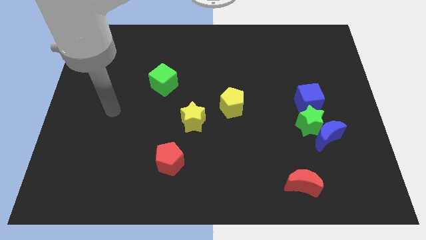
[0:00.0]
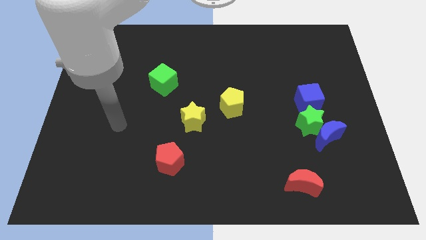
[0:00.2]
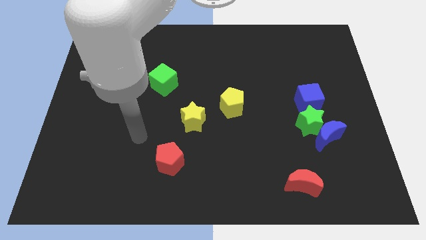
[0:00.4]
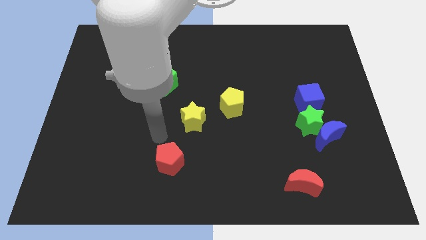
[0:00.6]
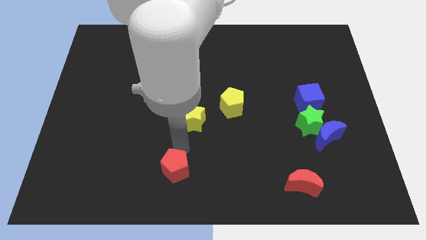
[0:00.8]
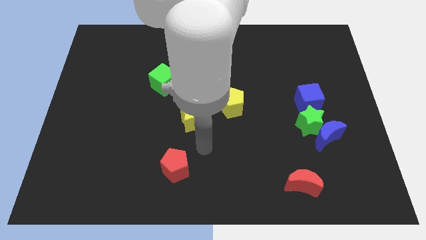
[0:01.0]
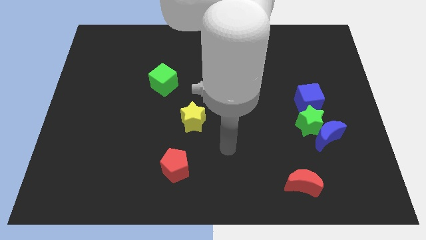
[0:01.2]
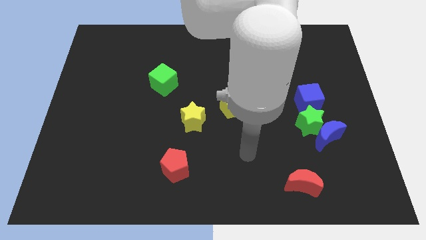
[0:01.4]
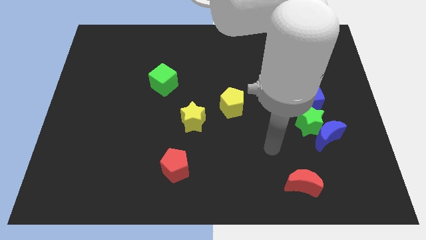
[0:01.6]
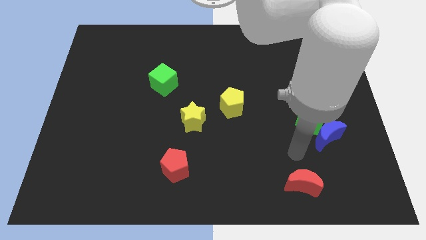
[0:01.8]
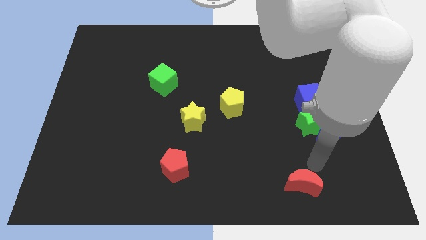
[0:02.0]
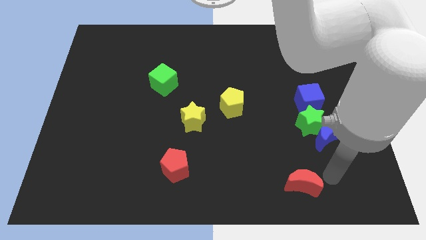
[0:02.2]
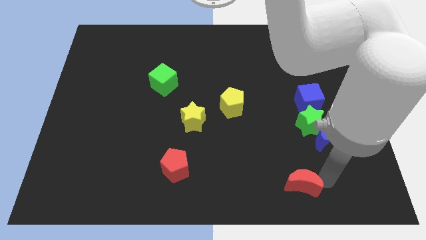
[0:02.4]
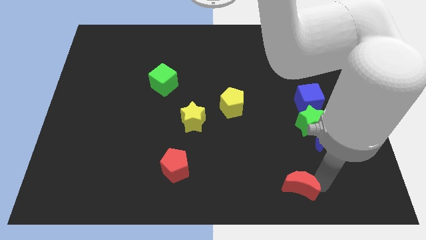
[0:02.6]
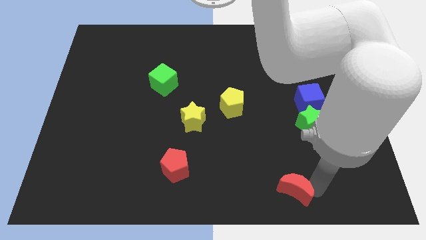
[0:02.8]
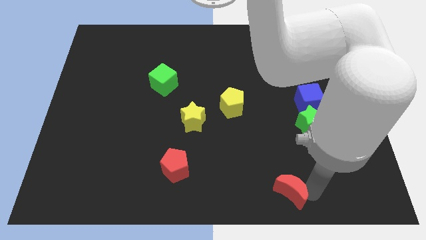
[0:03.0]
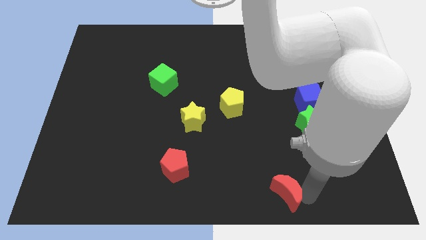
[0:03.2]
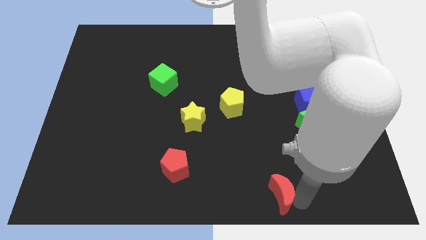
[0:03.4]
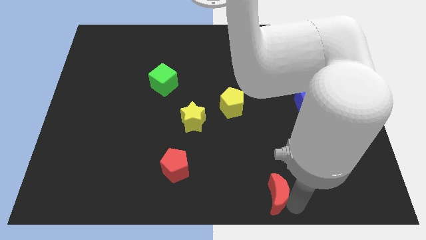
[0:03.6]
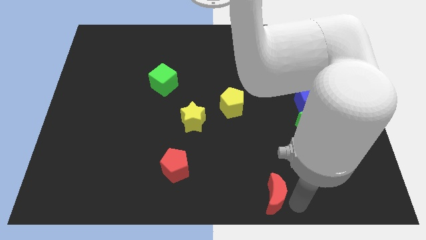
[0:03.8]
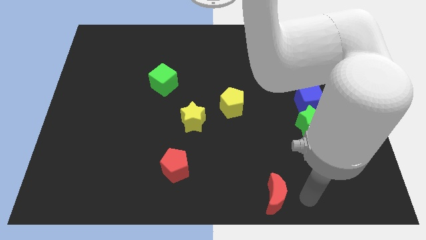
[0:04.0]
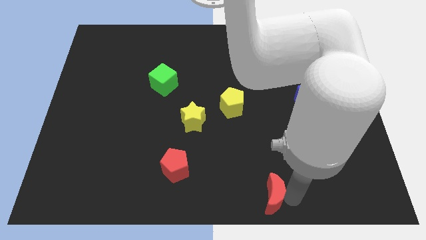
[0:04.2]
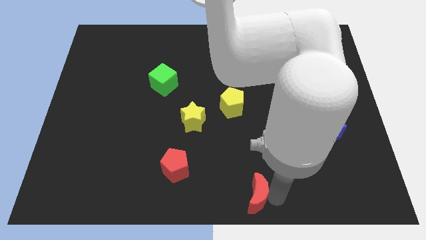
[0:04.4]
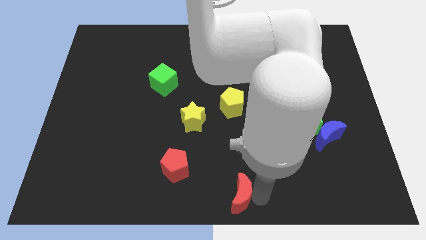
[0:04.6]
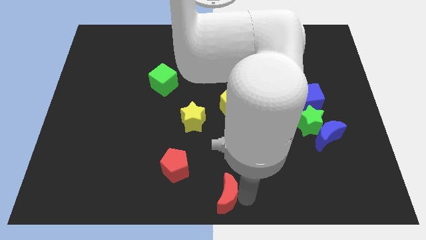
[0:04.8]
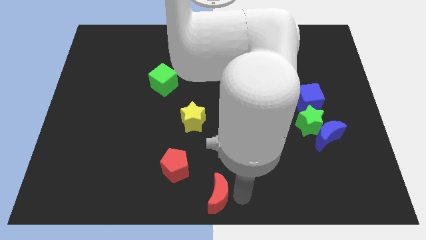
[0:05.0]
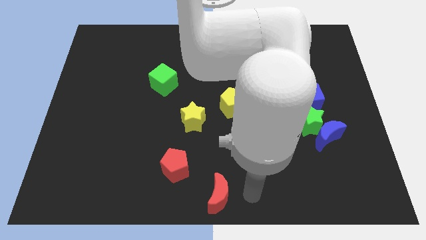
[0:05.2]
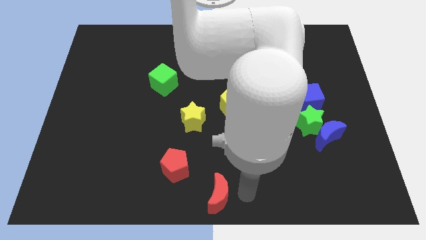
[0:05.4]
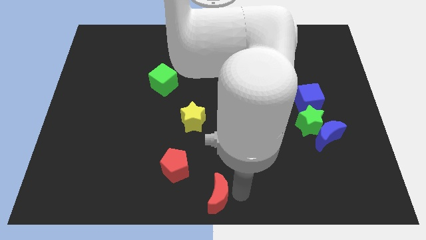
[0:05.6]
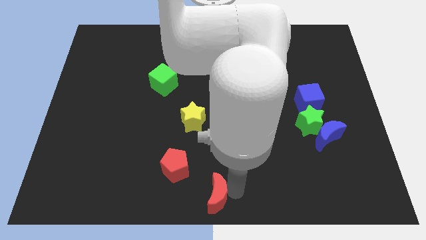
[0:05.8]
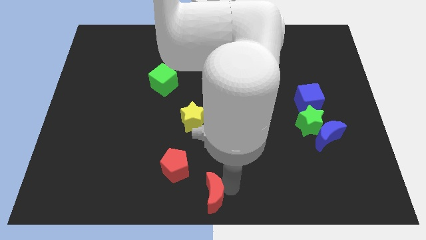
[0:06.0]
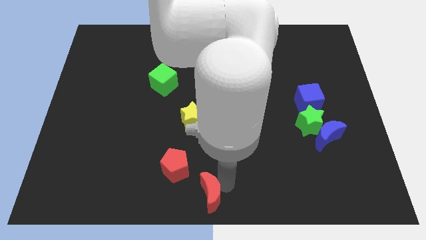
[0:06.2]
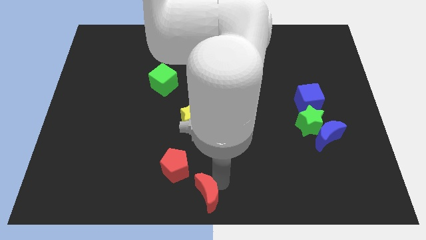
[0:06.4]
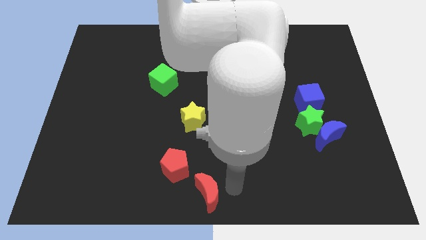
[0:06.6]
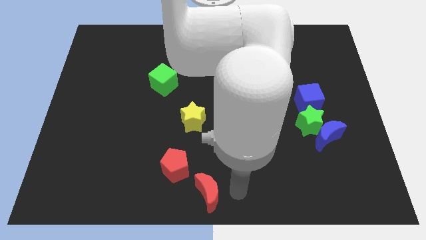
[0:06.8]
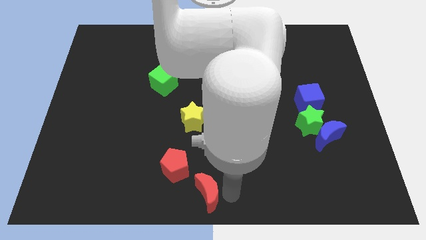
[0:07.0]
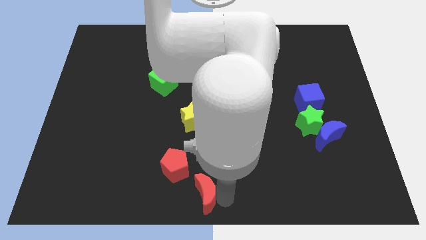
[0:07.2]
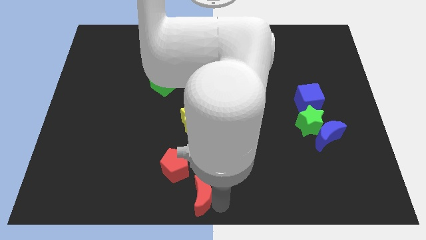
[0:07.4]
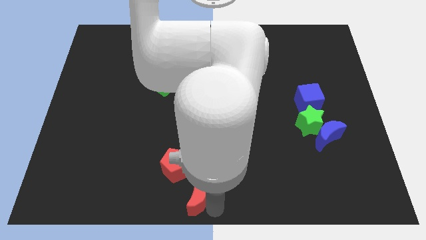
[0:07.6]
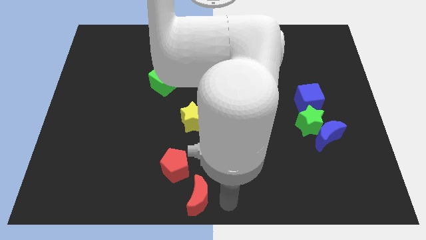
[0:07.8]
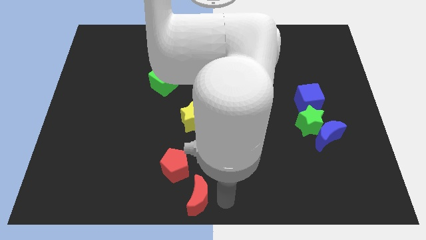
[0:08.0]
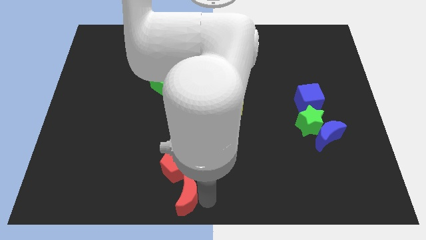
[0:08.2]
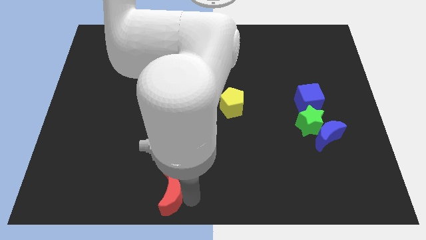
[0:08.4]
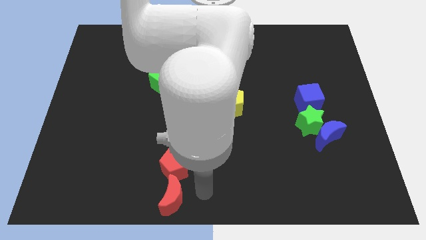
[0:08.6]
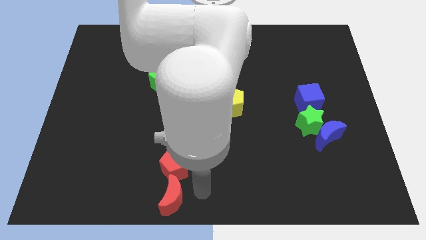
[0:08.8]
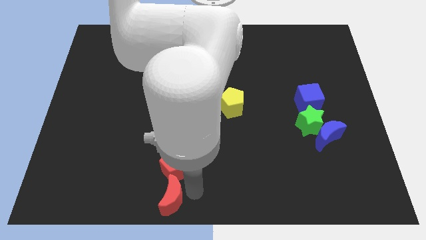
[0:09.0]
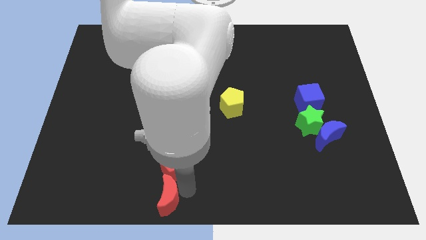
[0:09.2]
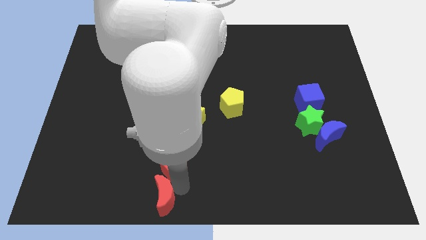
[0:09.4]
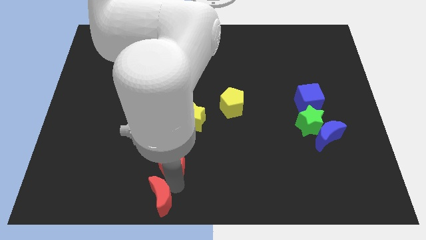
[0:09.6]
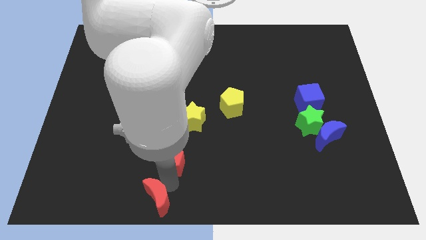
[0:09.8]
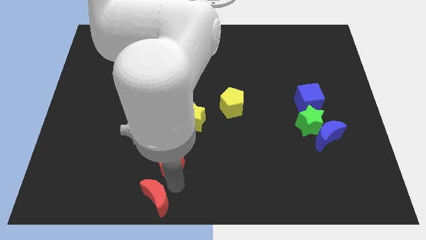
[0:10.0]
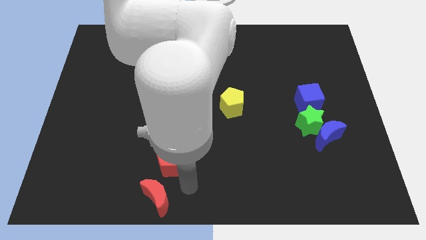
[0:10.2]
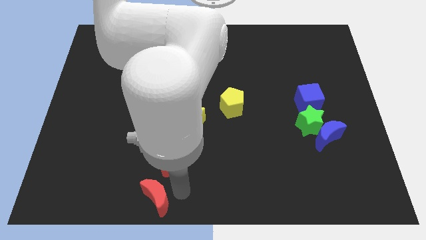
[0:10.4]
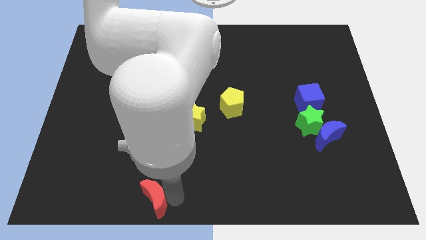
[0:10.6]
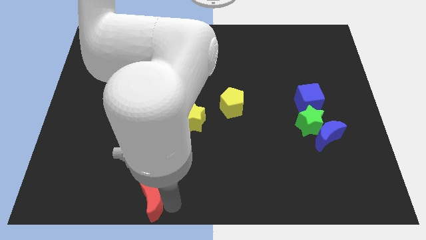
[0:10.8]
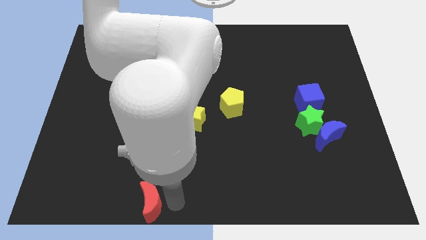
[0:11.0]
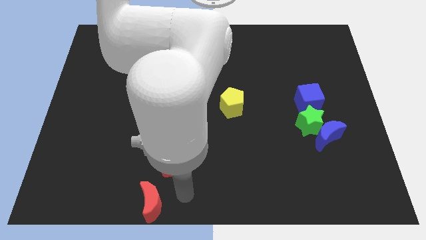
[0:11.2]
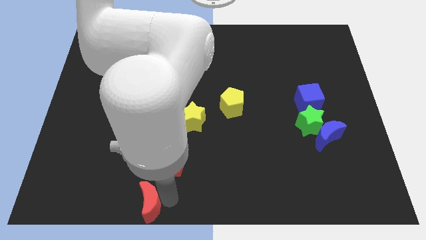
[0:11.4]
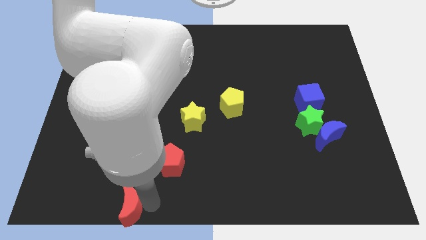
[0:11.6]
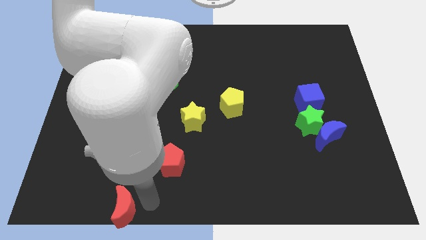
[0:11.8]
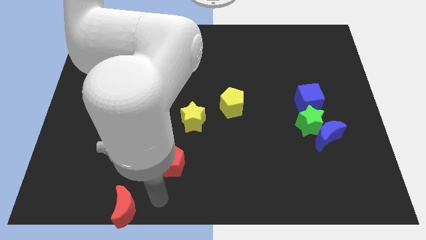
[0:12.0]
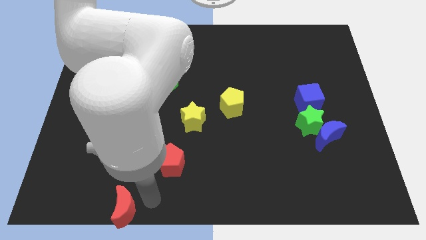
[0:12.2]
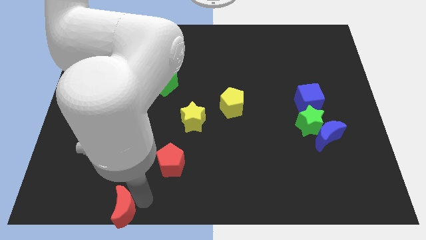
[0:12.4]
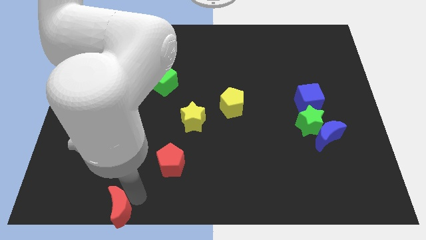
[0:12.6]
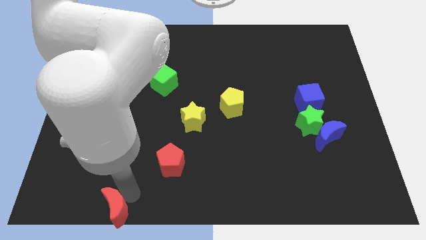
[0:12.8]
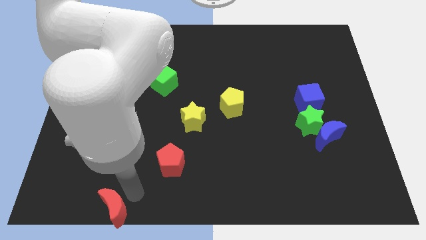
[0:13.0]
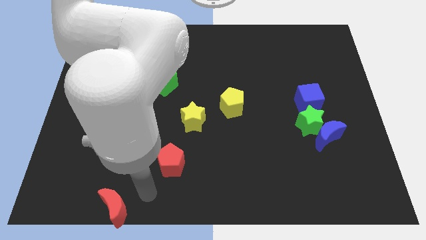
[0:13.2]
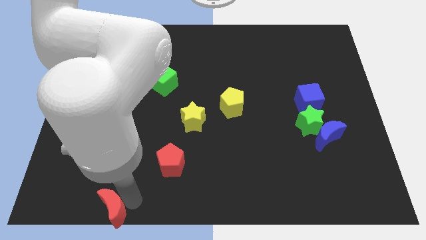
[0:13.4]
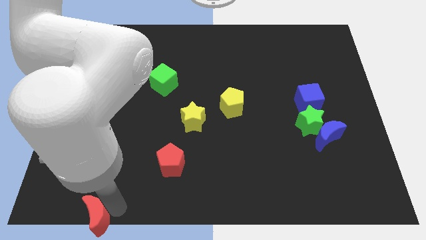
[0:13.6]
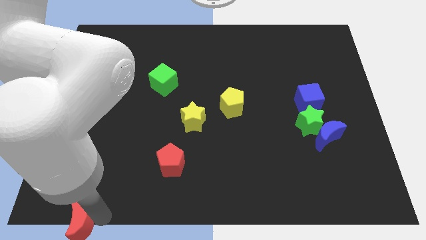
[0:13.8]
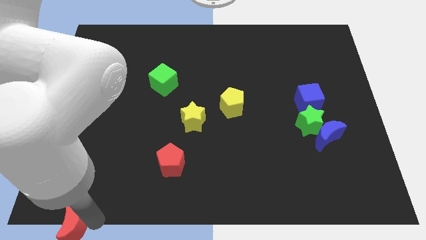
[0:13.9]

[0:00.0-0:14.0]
put the red moon to the bottom left of the board

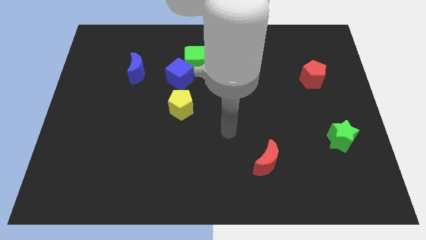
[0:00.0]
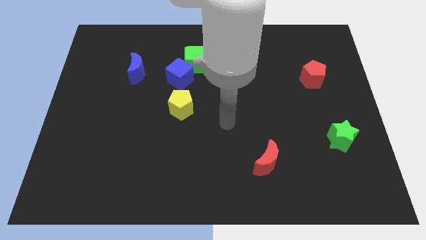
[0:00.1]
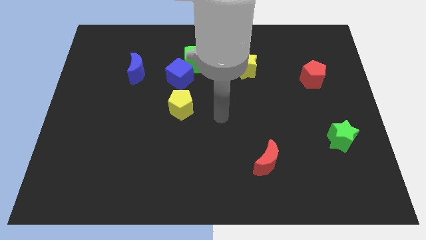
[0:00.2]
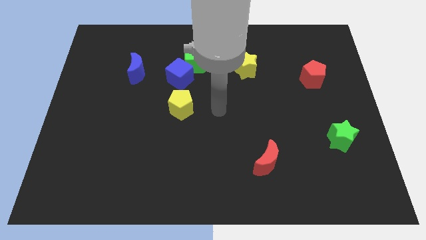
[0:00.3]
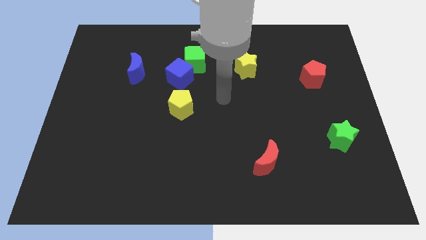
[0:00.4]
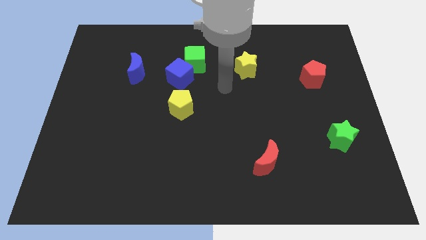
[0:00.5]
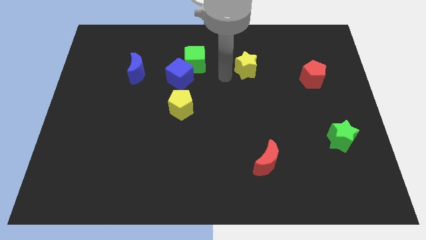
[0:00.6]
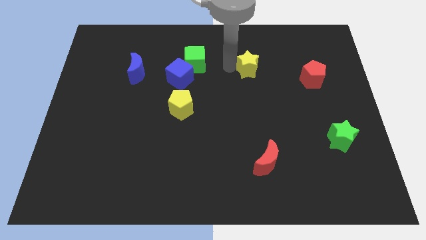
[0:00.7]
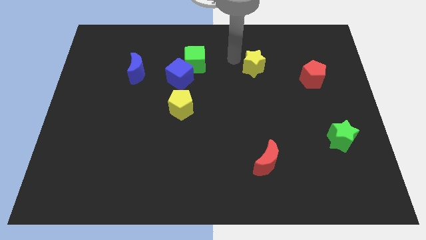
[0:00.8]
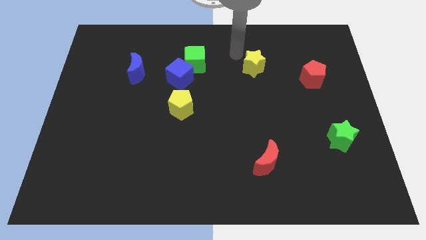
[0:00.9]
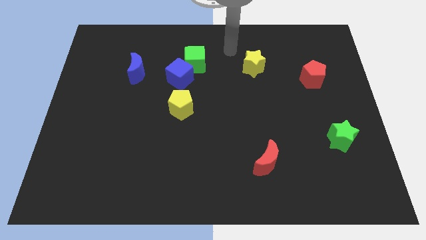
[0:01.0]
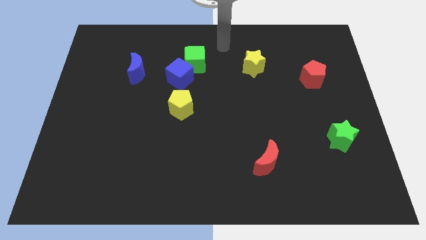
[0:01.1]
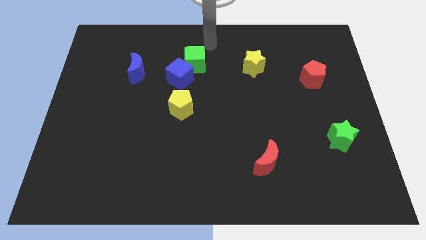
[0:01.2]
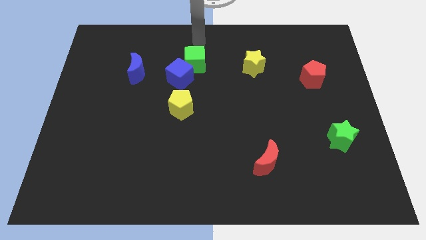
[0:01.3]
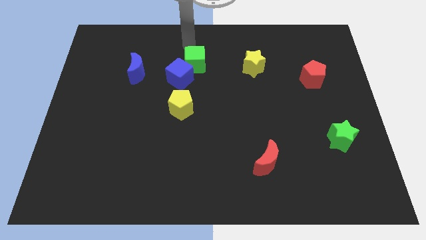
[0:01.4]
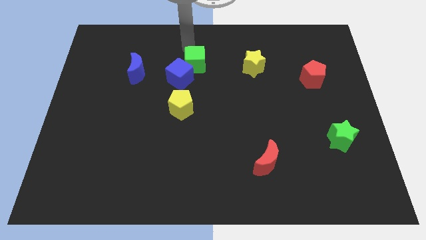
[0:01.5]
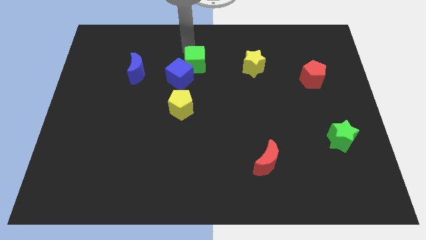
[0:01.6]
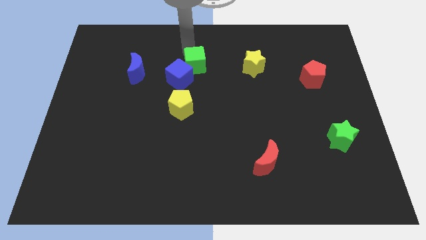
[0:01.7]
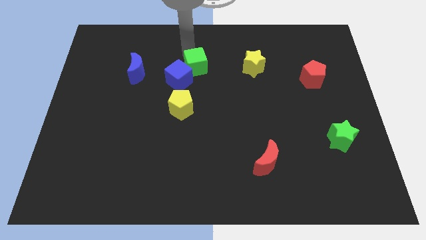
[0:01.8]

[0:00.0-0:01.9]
push the green cube to the middle
